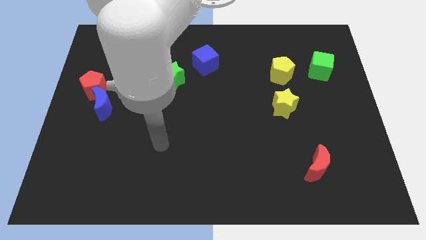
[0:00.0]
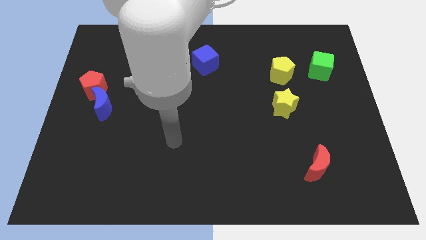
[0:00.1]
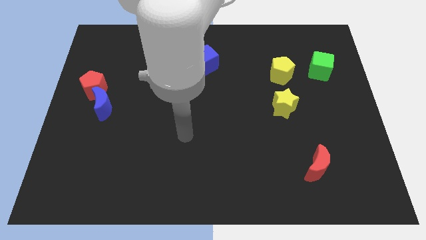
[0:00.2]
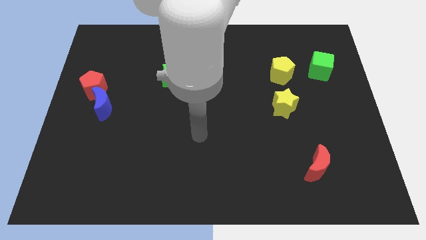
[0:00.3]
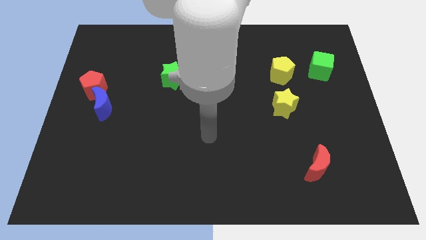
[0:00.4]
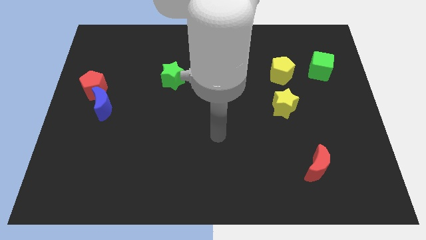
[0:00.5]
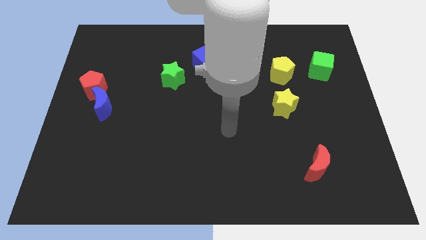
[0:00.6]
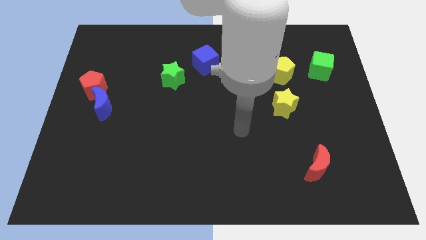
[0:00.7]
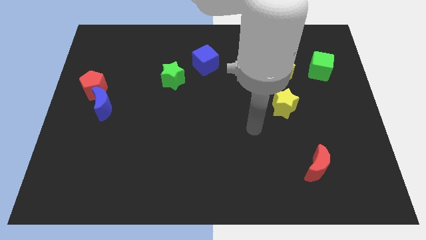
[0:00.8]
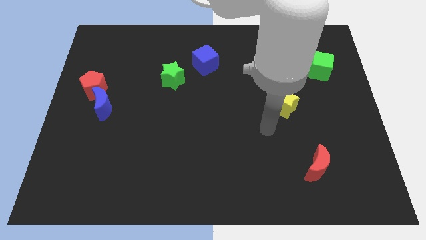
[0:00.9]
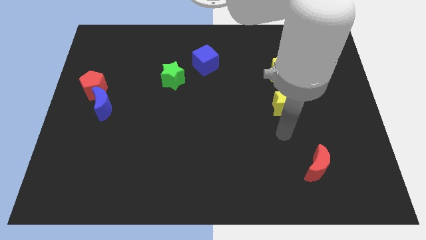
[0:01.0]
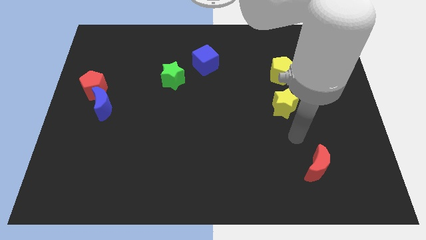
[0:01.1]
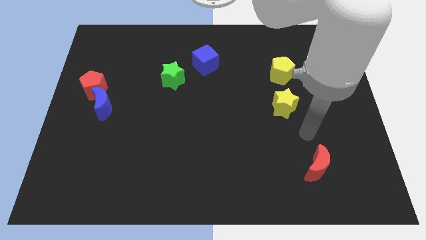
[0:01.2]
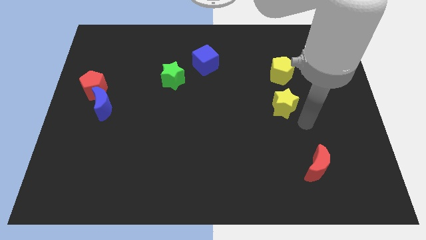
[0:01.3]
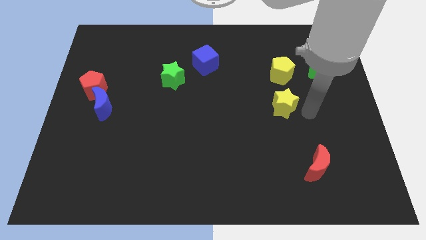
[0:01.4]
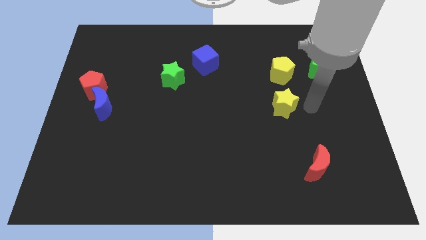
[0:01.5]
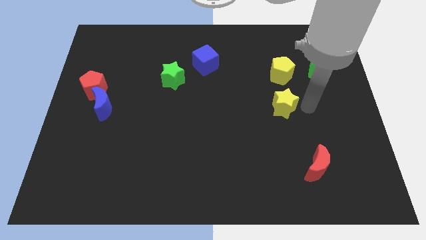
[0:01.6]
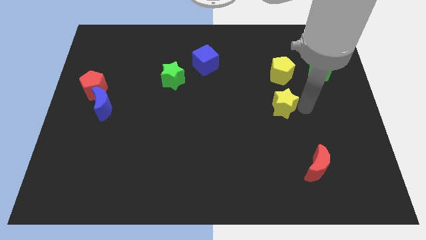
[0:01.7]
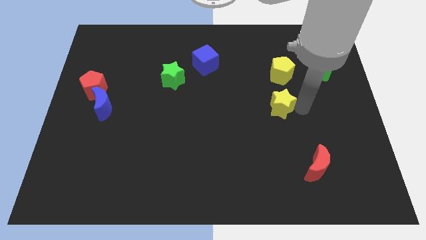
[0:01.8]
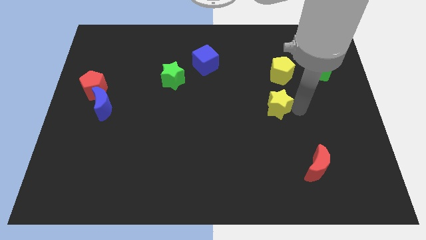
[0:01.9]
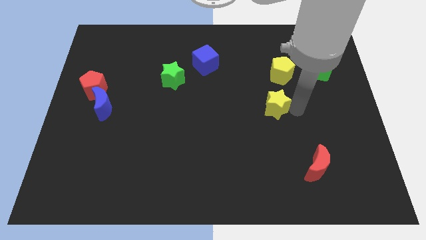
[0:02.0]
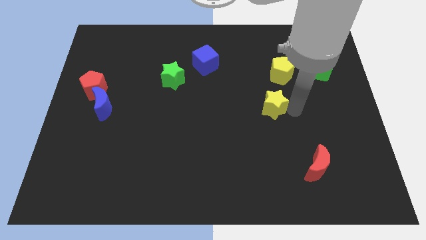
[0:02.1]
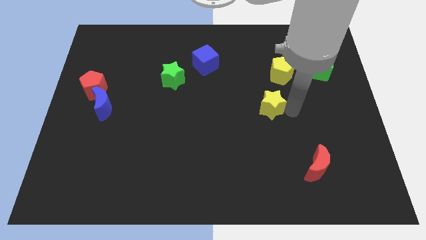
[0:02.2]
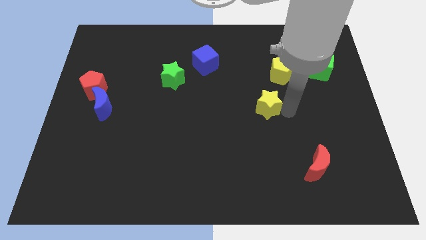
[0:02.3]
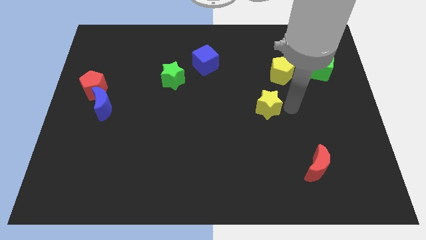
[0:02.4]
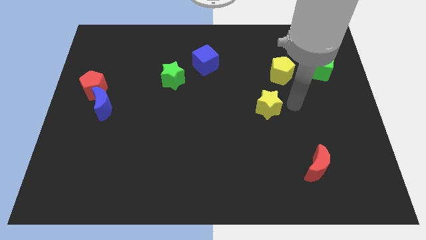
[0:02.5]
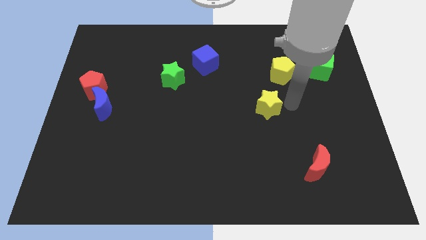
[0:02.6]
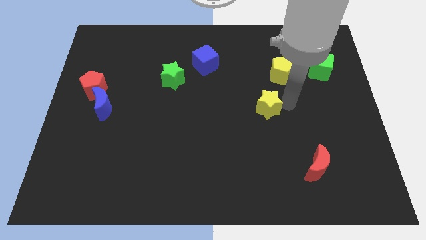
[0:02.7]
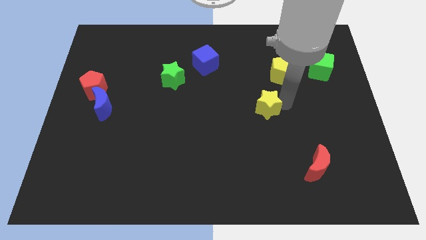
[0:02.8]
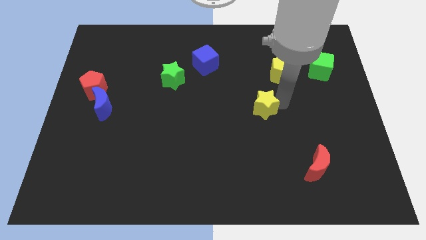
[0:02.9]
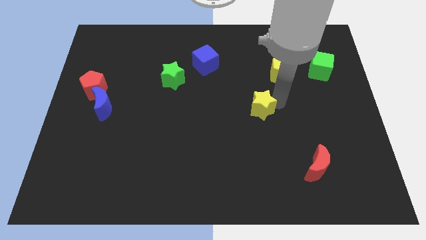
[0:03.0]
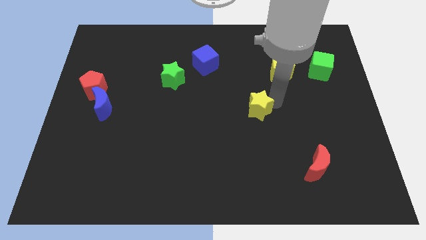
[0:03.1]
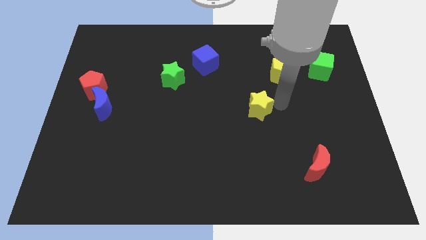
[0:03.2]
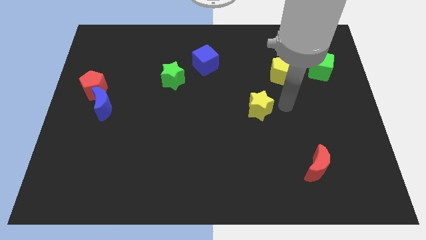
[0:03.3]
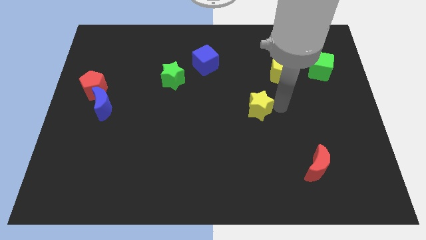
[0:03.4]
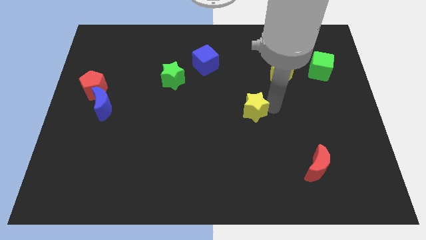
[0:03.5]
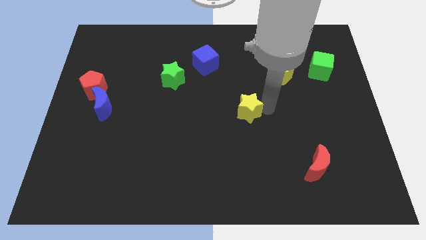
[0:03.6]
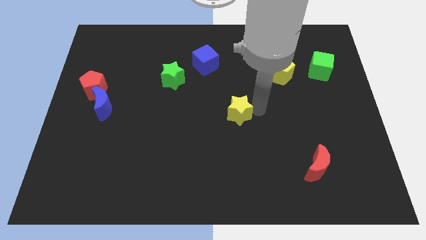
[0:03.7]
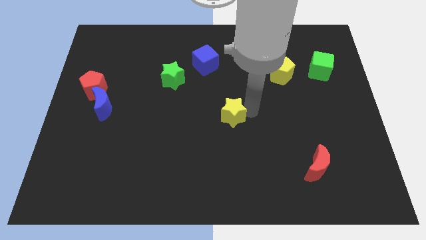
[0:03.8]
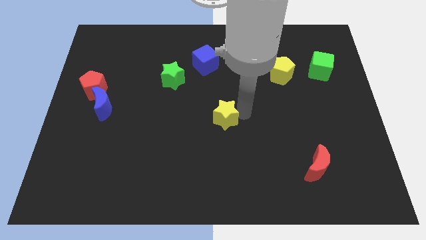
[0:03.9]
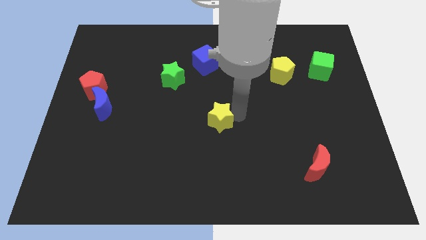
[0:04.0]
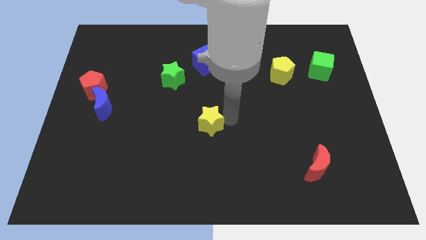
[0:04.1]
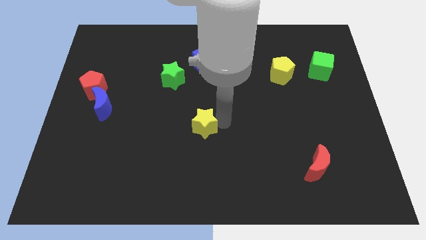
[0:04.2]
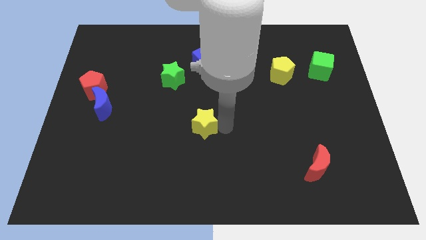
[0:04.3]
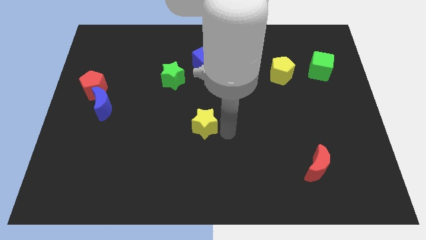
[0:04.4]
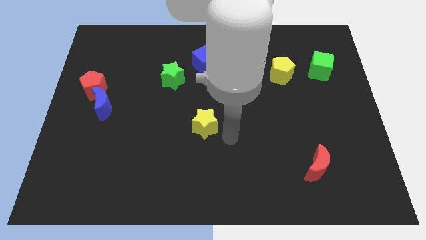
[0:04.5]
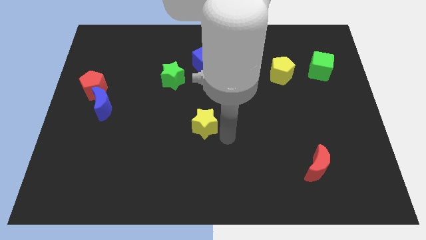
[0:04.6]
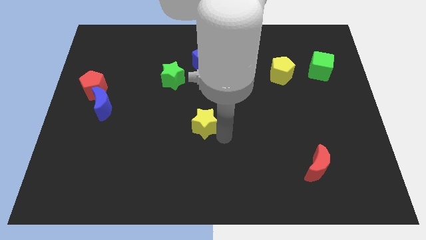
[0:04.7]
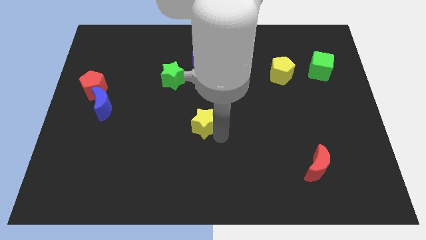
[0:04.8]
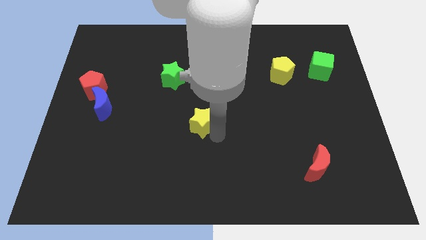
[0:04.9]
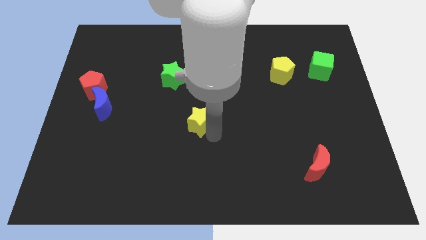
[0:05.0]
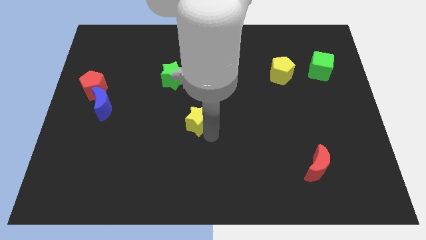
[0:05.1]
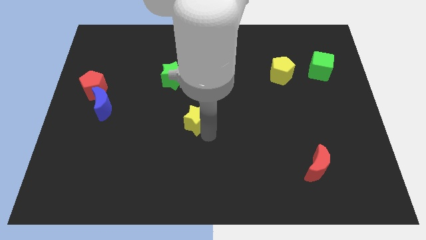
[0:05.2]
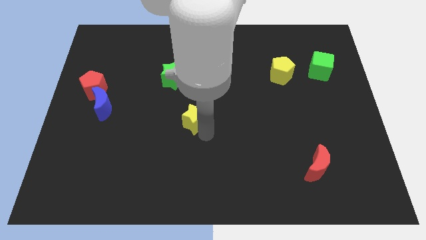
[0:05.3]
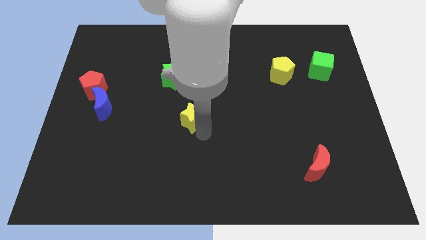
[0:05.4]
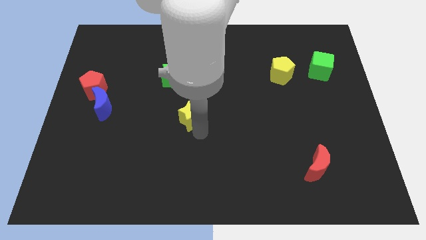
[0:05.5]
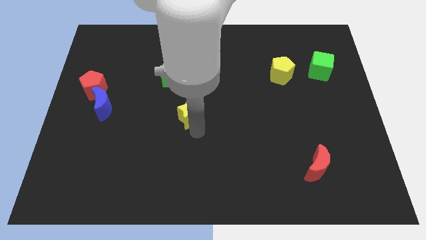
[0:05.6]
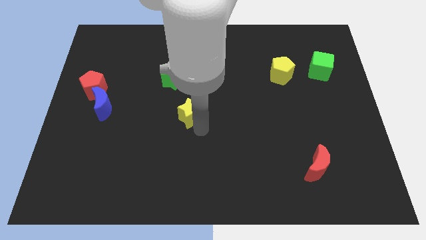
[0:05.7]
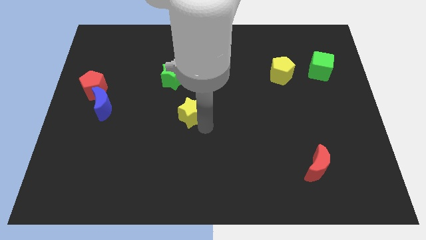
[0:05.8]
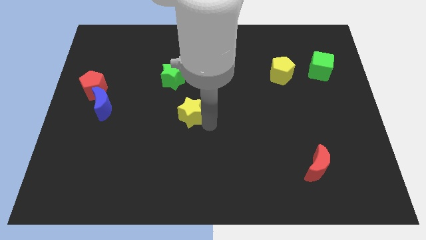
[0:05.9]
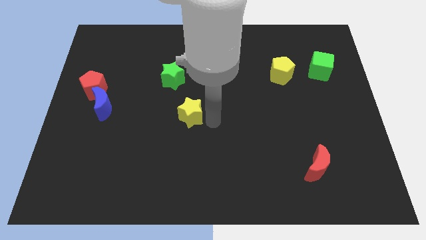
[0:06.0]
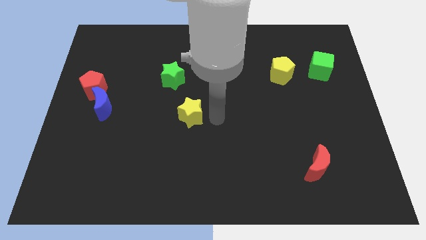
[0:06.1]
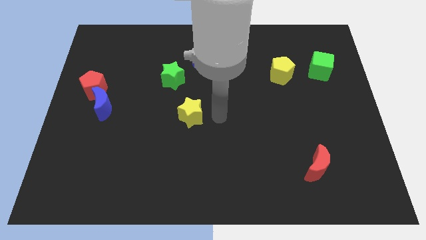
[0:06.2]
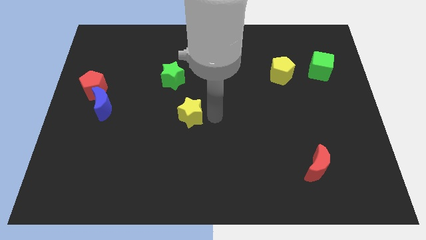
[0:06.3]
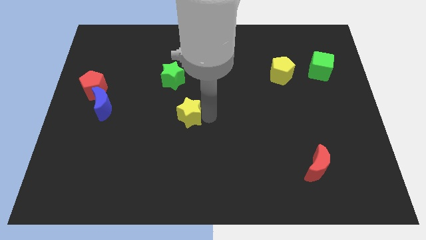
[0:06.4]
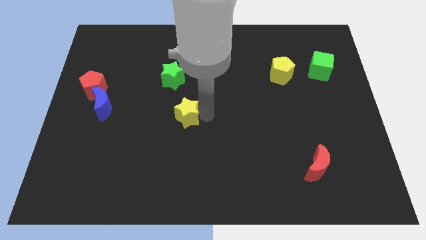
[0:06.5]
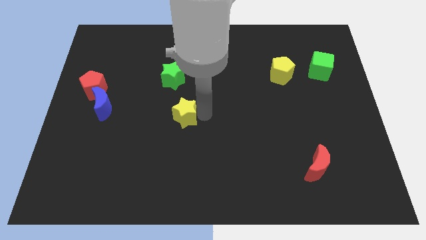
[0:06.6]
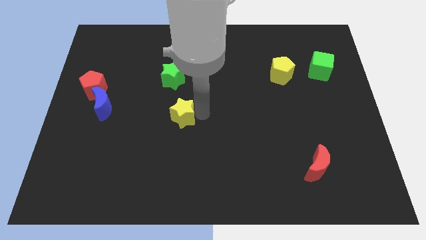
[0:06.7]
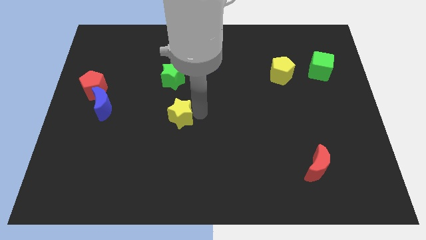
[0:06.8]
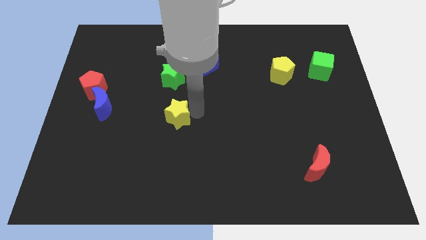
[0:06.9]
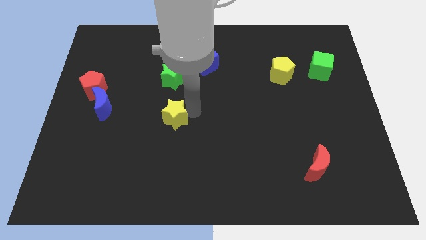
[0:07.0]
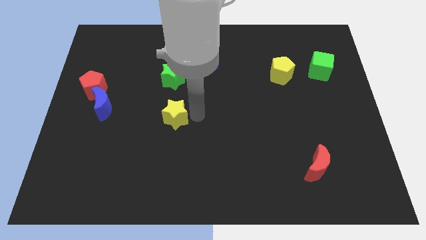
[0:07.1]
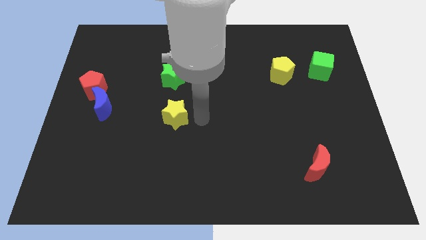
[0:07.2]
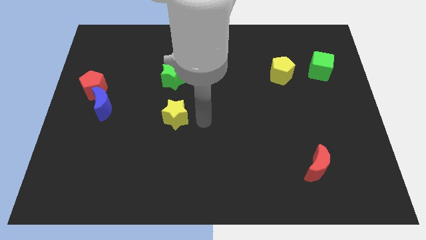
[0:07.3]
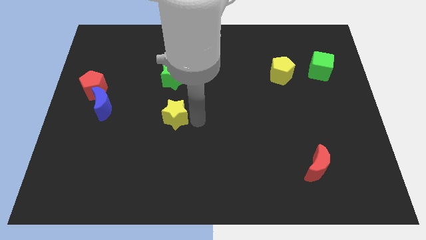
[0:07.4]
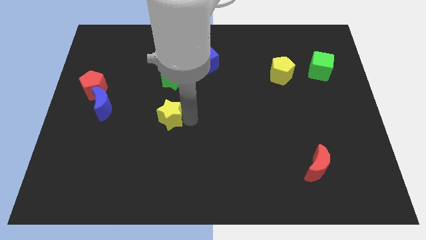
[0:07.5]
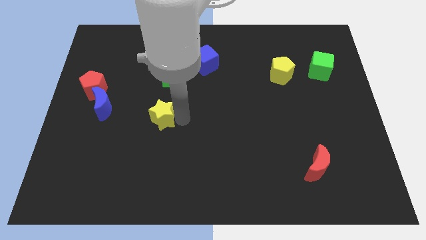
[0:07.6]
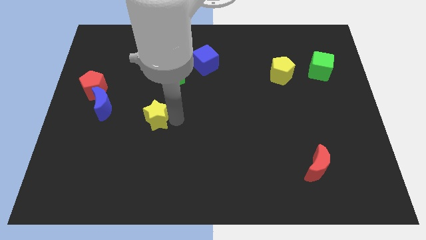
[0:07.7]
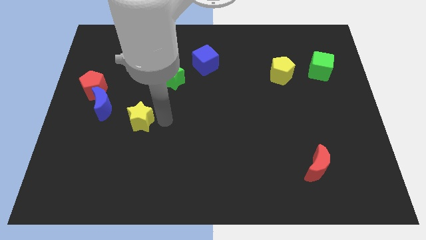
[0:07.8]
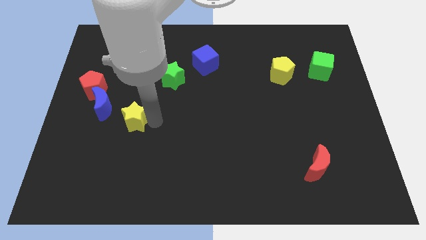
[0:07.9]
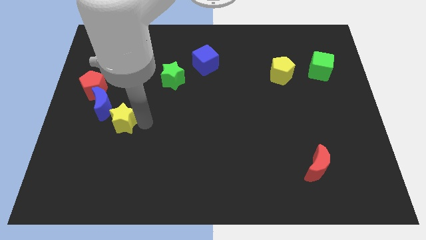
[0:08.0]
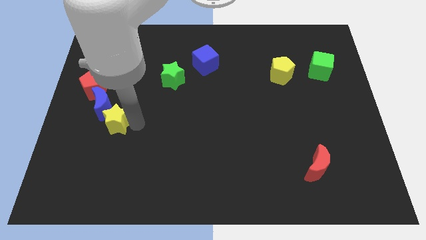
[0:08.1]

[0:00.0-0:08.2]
put the yellow star diagonally down and to the right of the red pentagon
